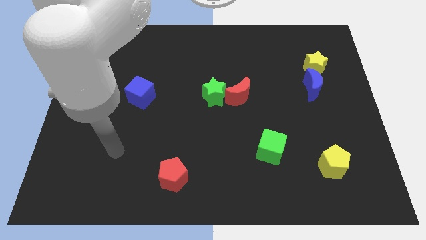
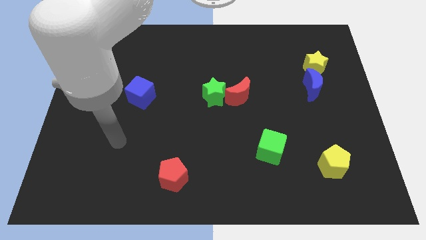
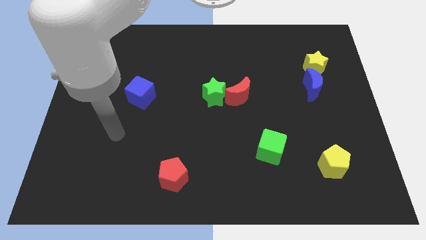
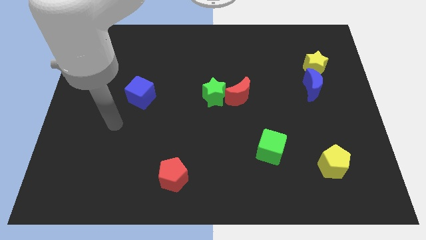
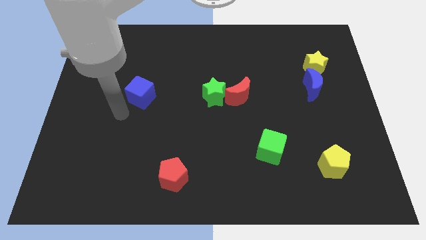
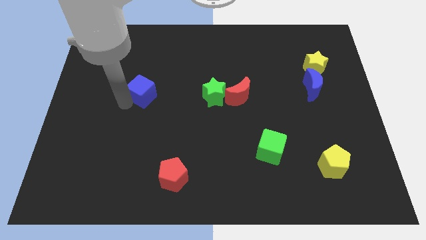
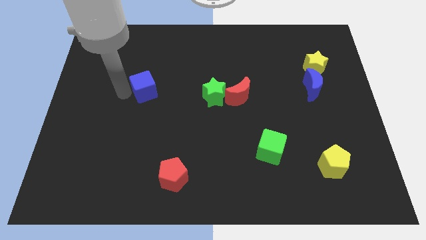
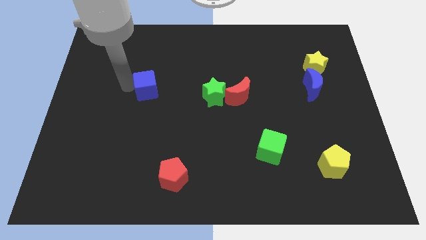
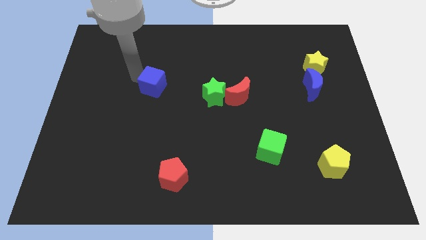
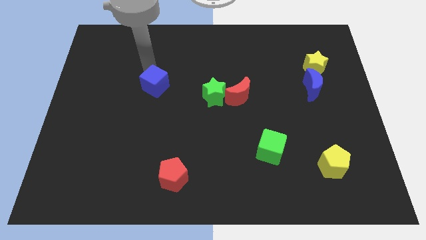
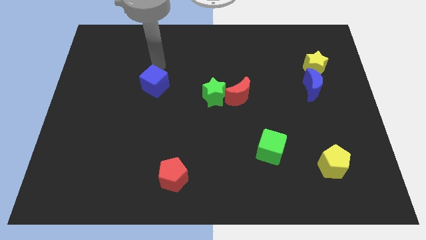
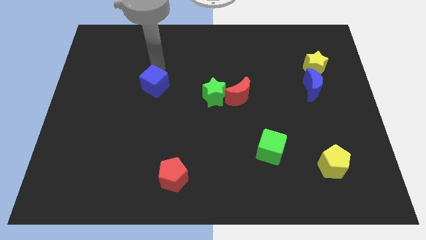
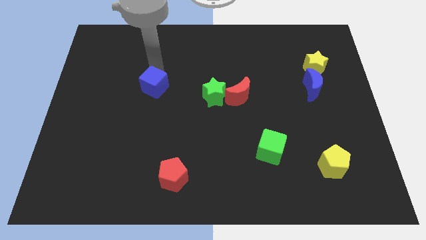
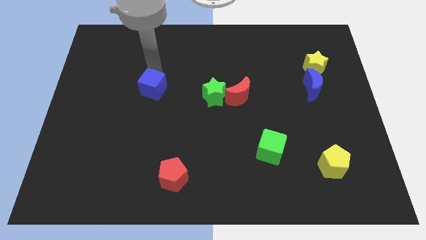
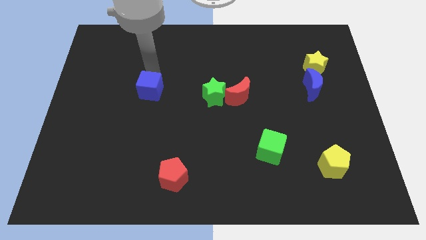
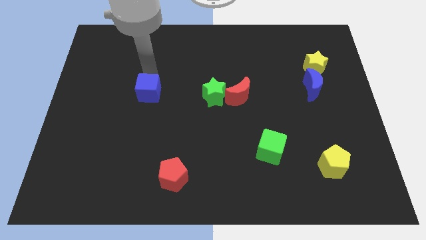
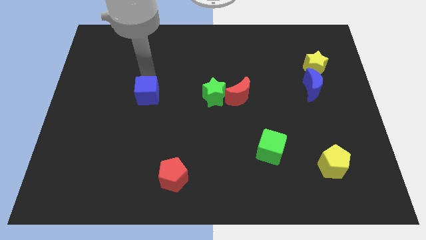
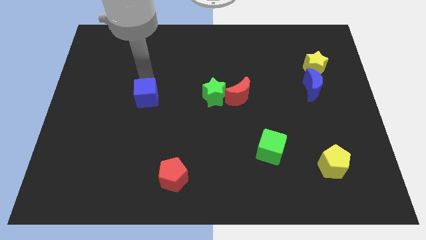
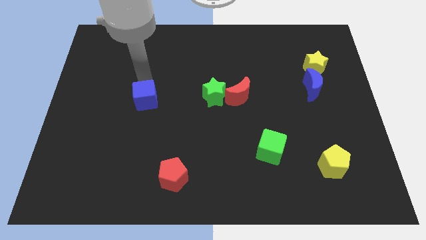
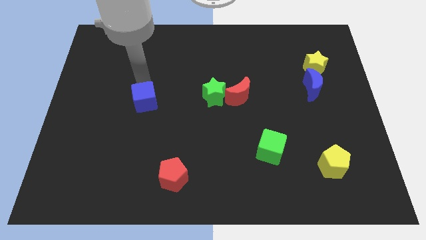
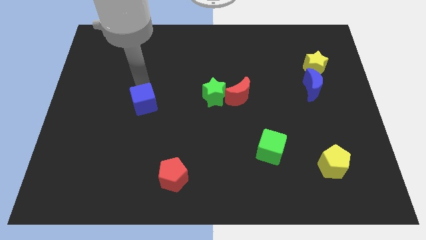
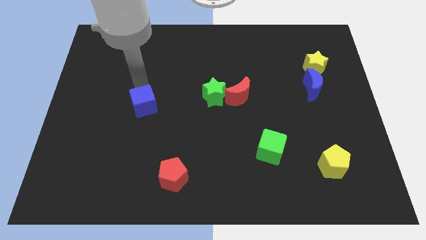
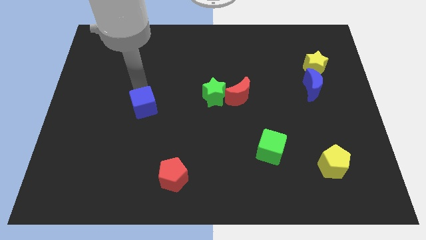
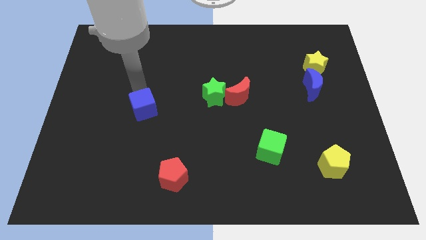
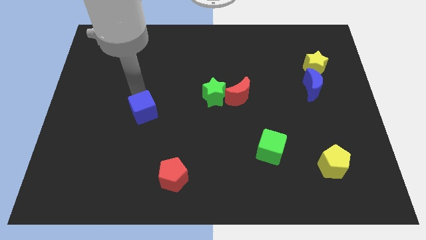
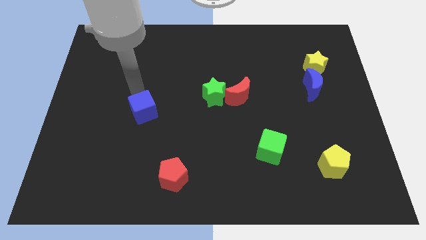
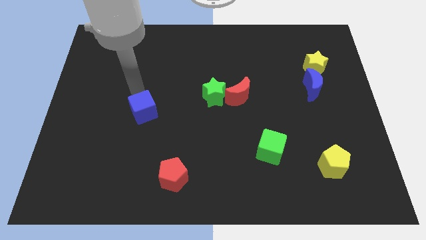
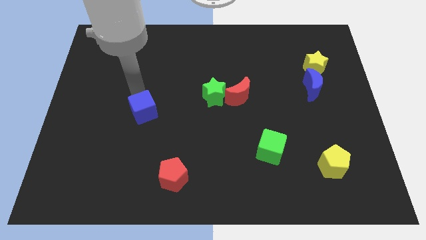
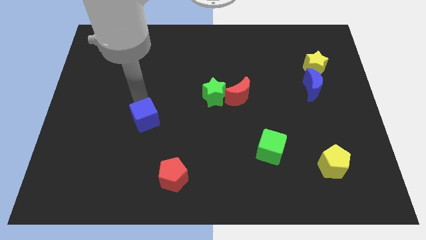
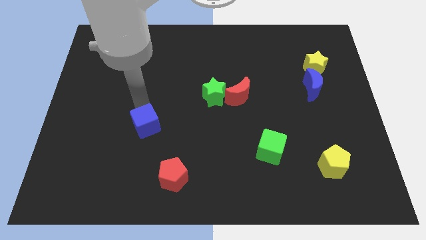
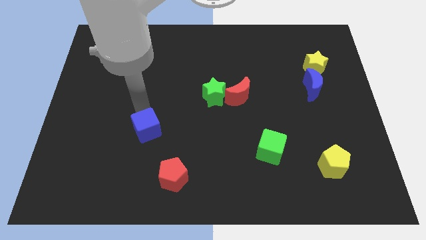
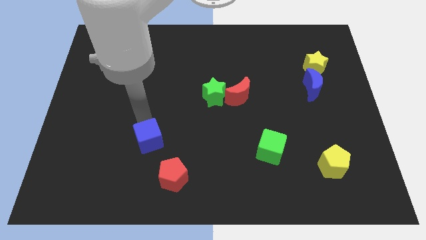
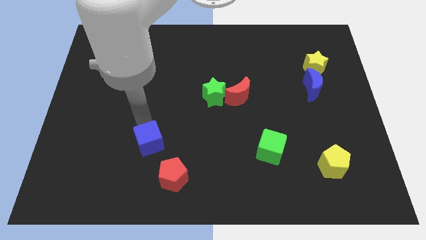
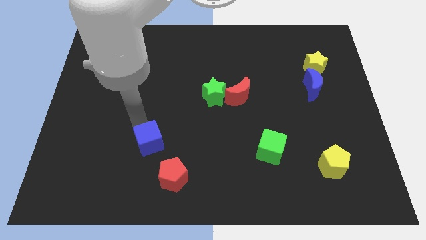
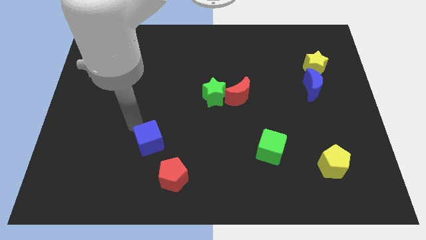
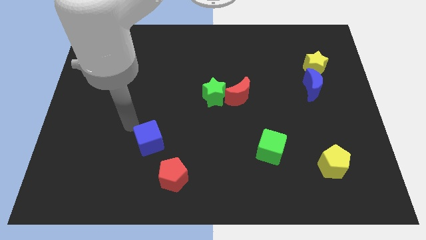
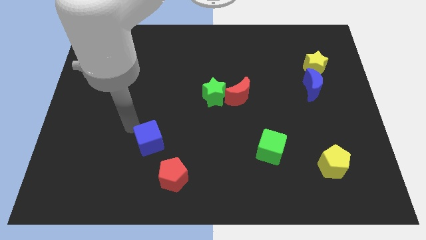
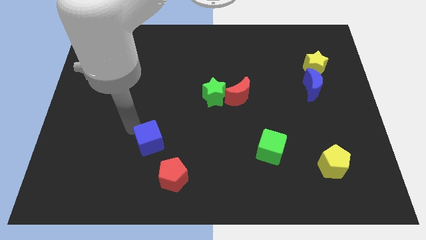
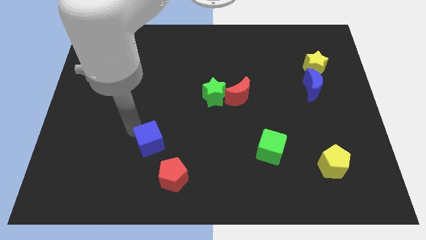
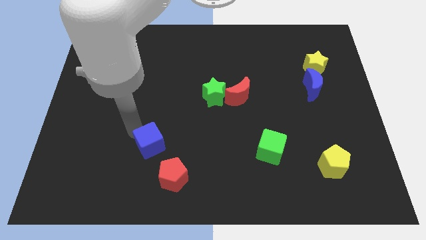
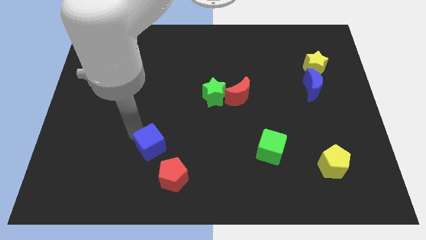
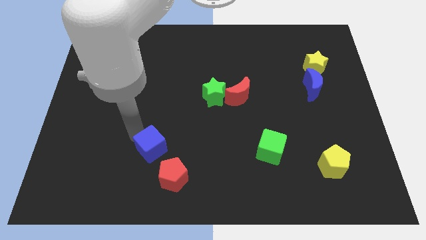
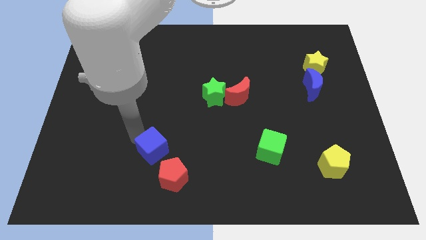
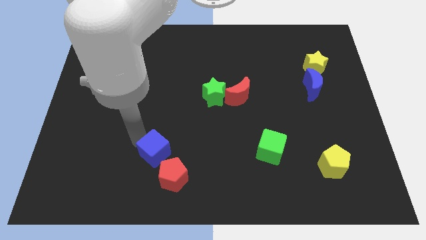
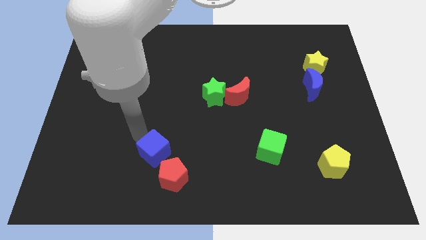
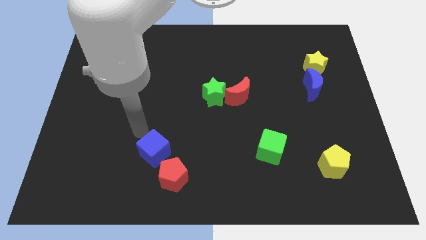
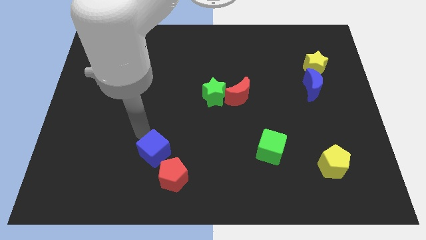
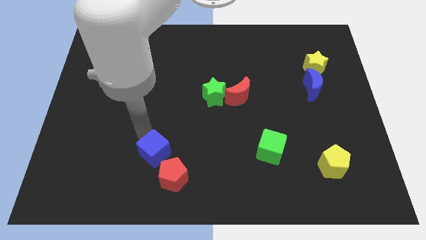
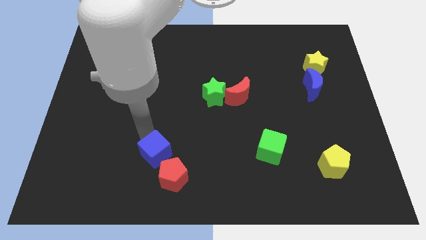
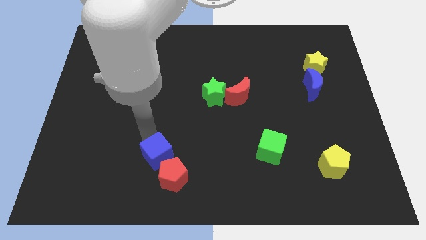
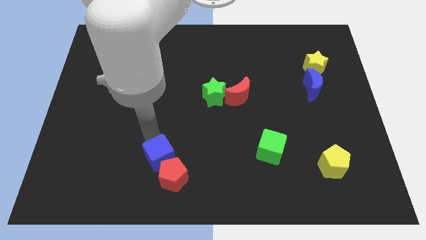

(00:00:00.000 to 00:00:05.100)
slide the blue cube towards the red pentagon

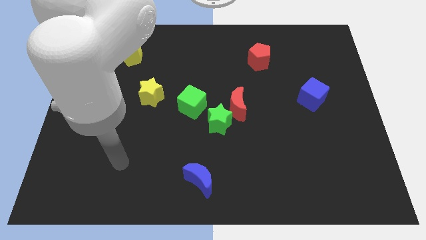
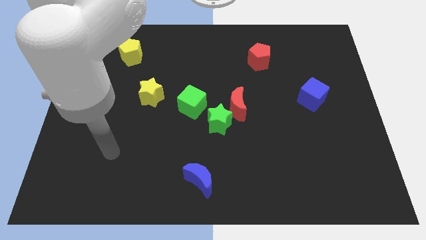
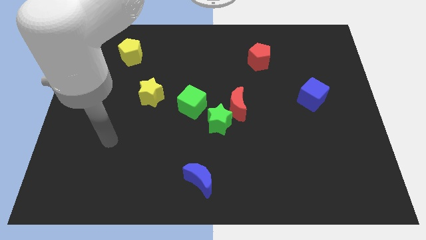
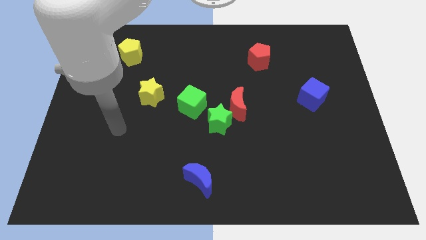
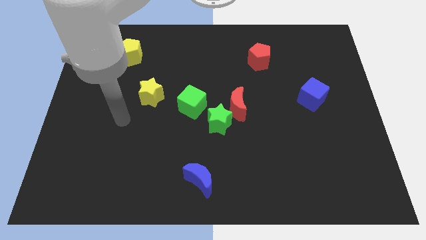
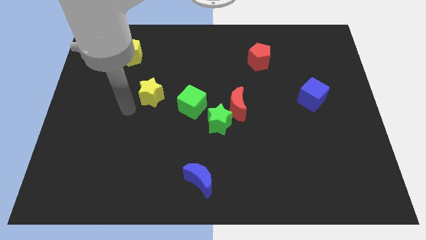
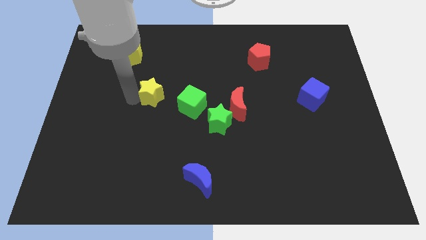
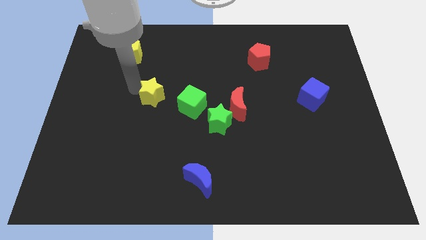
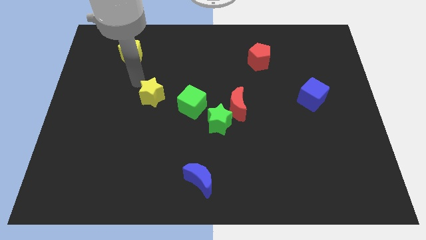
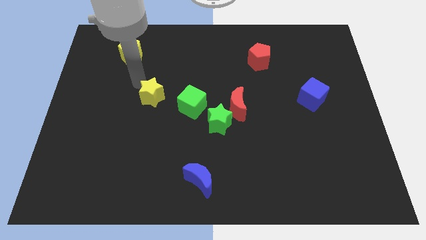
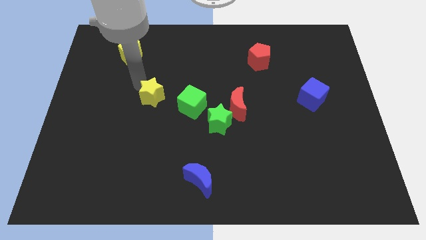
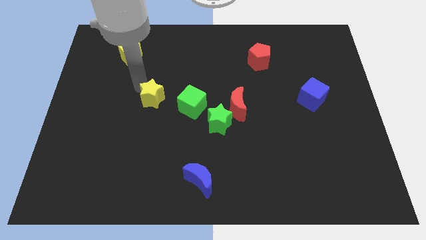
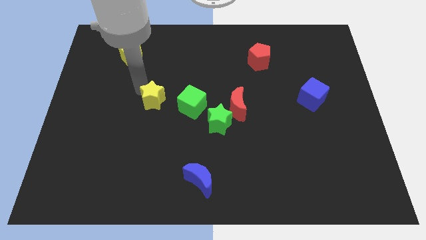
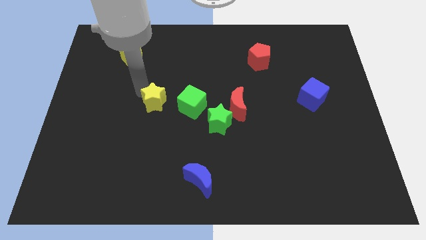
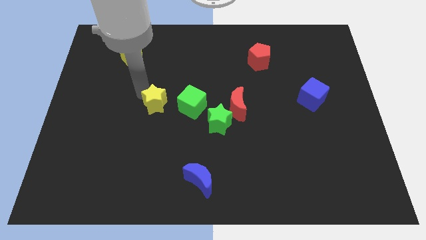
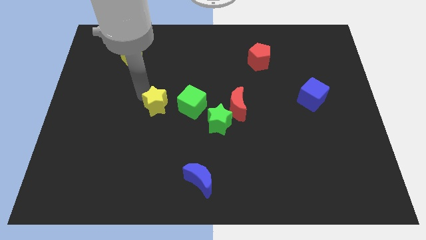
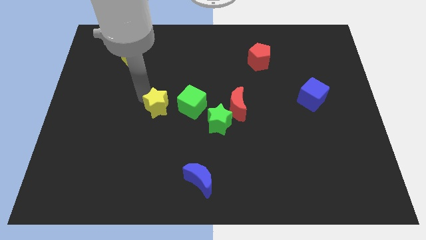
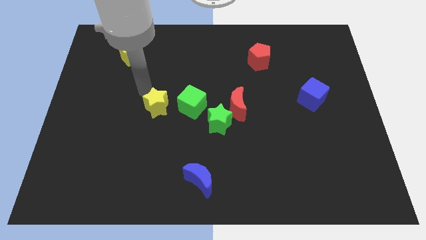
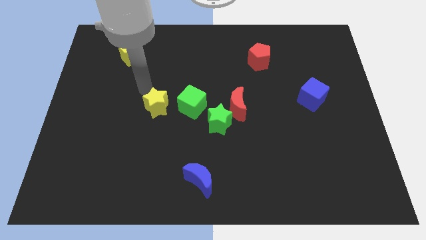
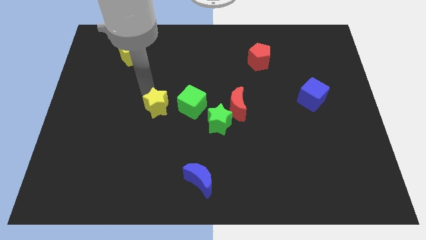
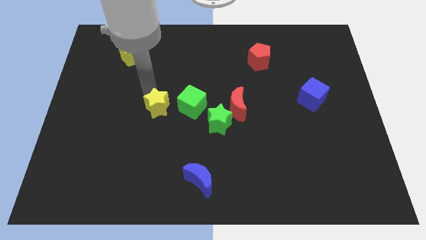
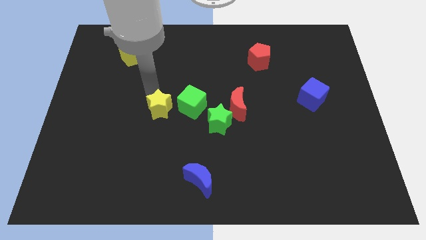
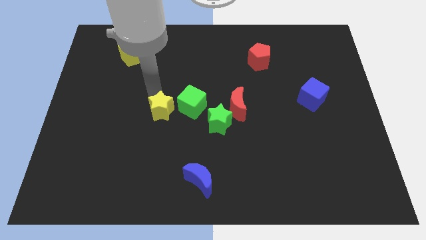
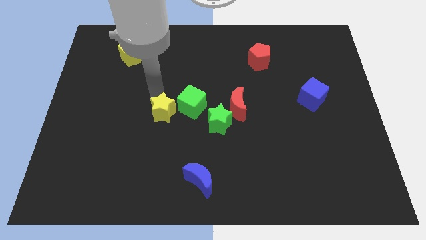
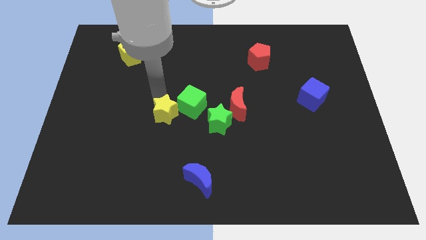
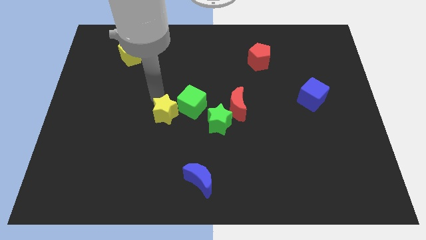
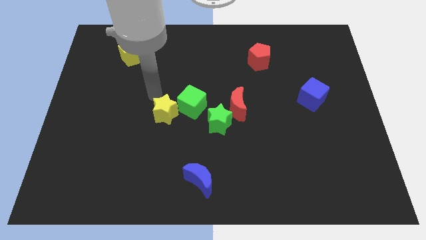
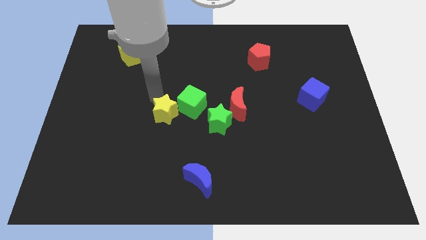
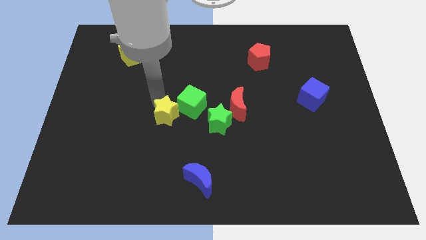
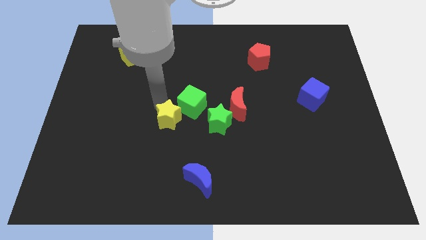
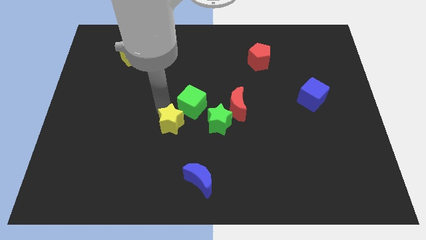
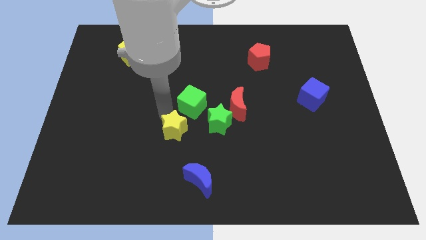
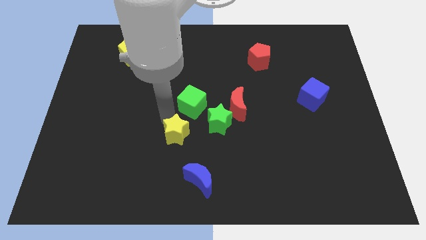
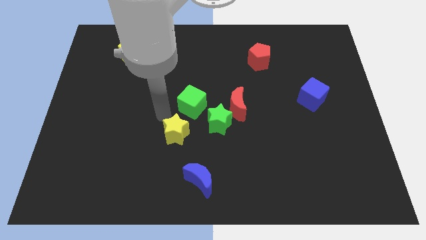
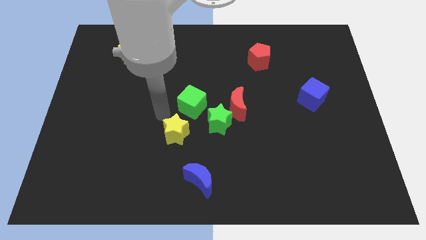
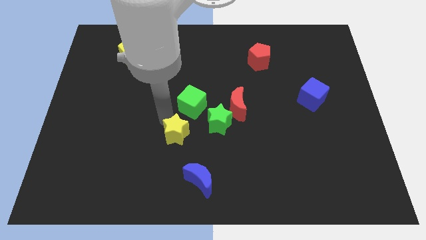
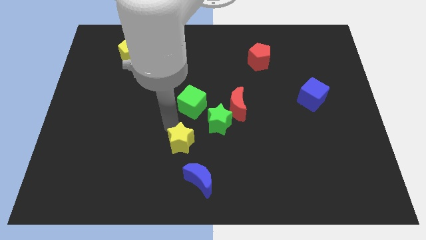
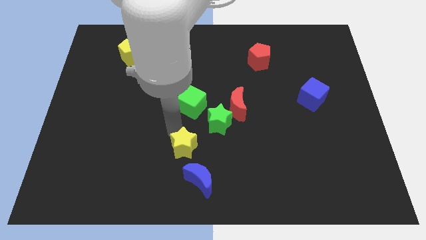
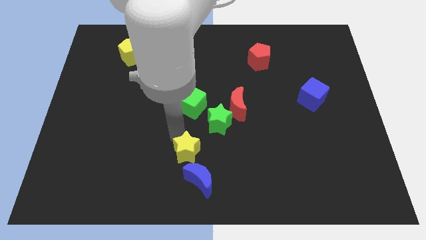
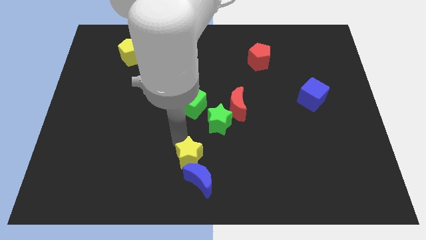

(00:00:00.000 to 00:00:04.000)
move the yellow star to the blue moon
